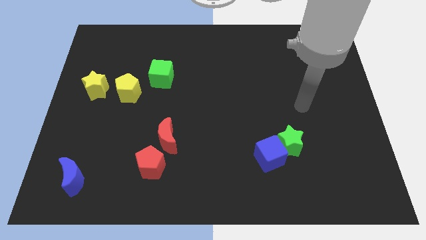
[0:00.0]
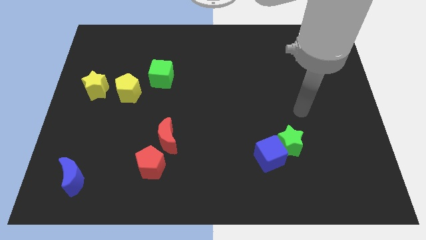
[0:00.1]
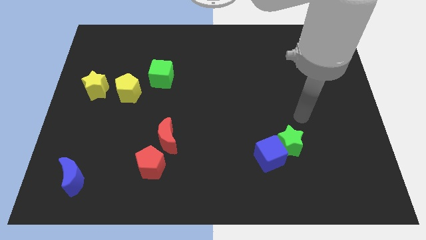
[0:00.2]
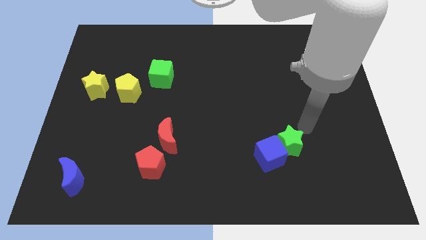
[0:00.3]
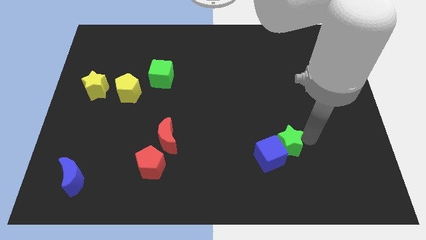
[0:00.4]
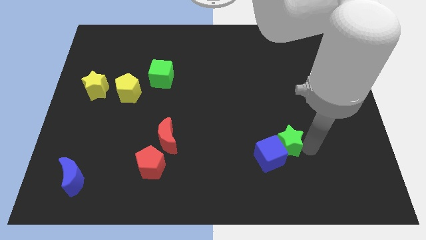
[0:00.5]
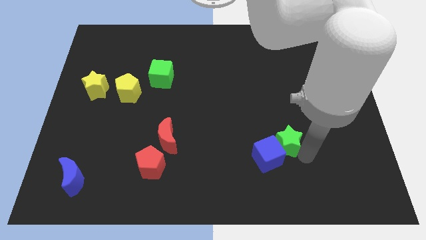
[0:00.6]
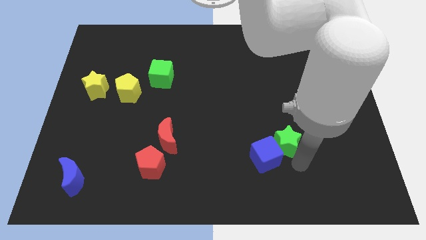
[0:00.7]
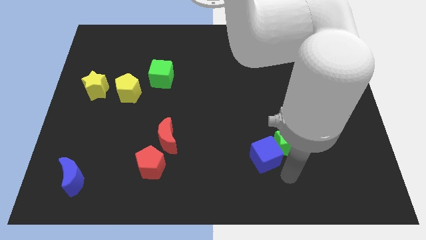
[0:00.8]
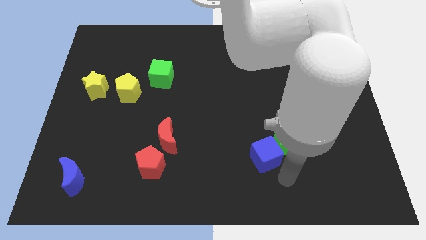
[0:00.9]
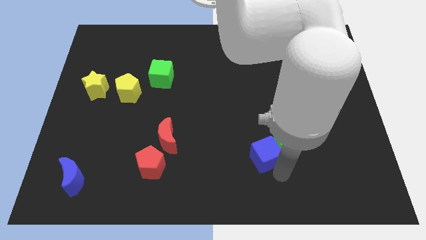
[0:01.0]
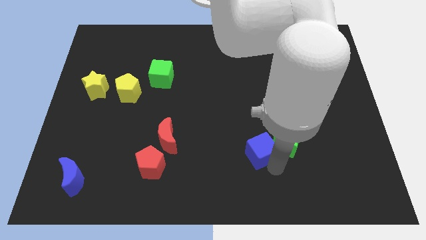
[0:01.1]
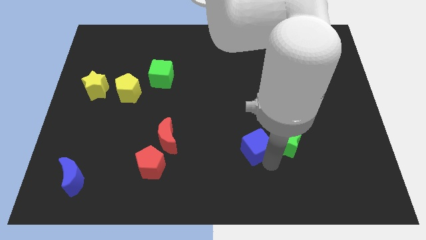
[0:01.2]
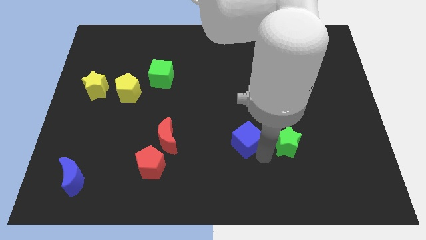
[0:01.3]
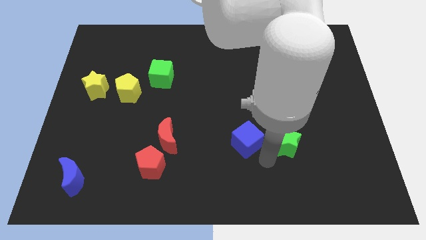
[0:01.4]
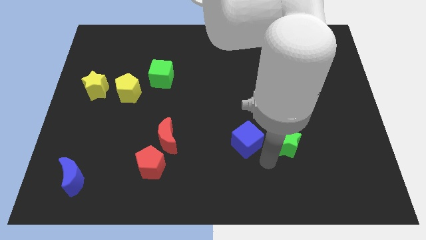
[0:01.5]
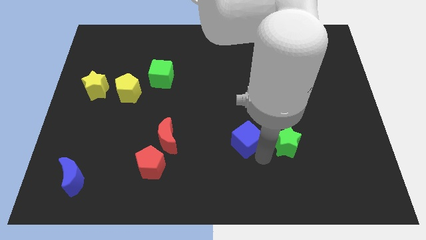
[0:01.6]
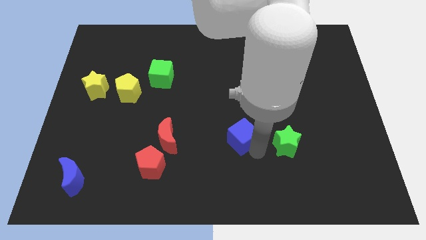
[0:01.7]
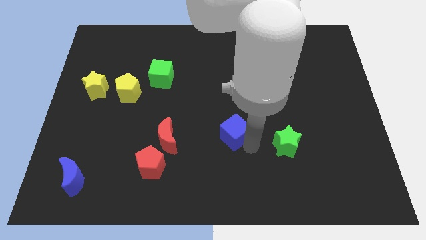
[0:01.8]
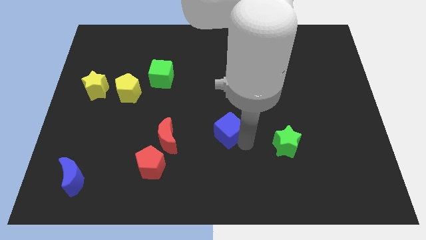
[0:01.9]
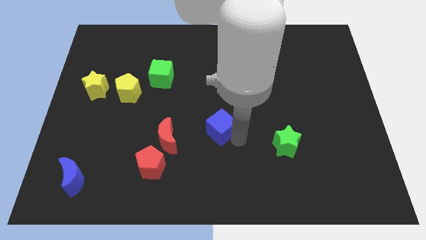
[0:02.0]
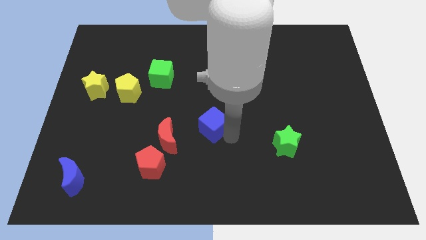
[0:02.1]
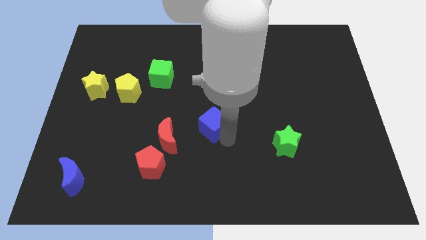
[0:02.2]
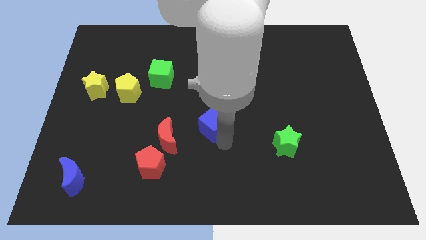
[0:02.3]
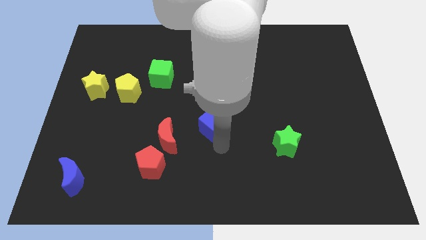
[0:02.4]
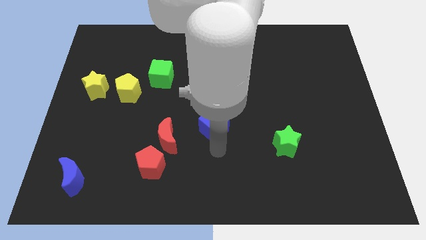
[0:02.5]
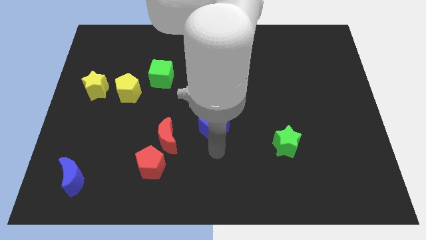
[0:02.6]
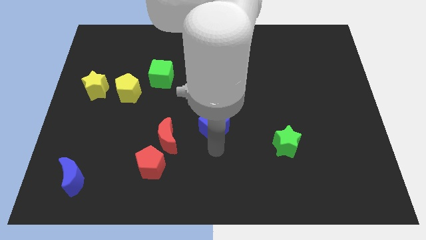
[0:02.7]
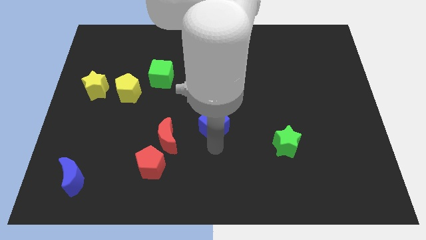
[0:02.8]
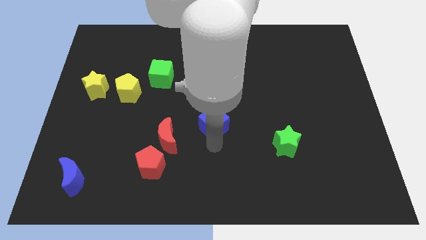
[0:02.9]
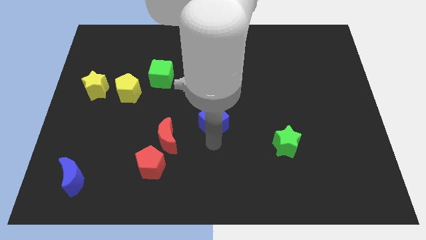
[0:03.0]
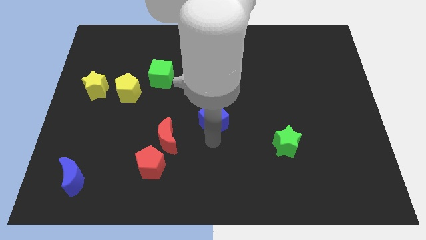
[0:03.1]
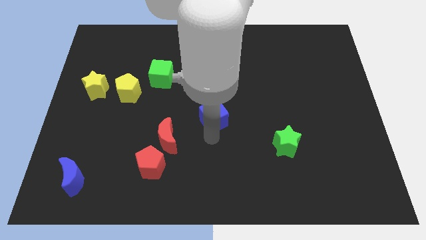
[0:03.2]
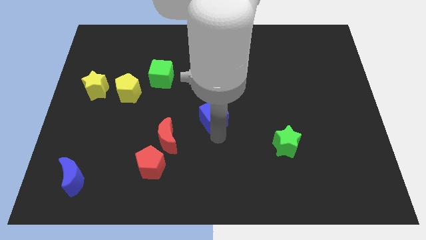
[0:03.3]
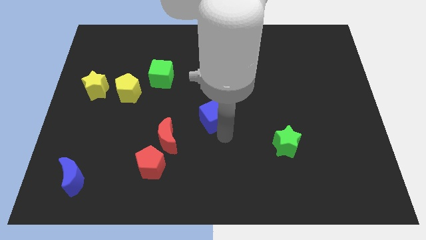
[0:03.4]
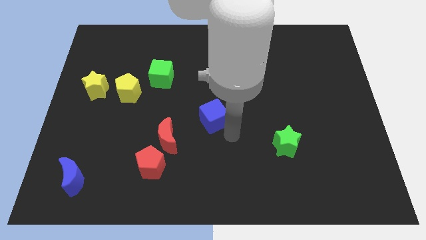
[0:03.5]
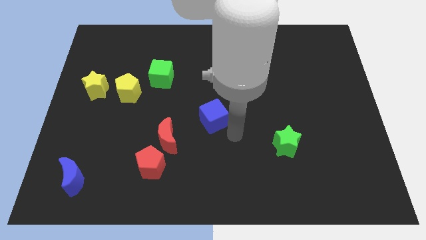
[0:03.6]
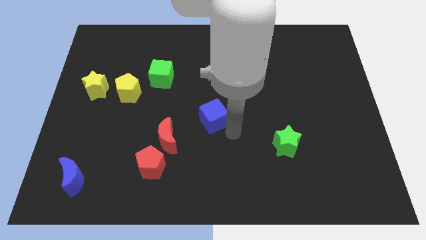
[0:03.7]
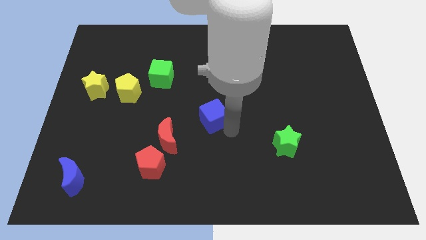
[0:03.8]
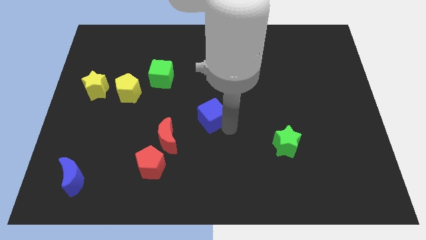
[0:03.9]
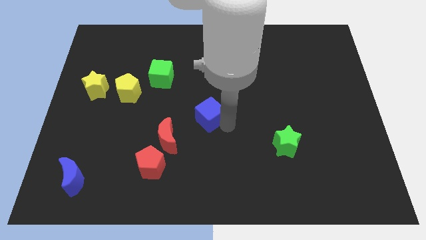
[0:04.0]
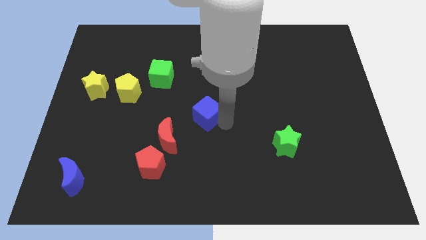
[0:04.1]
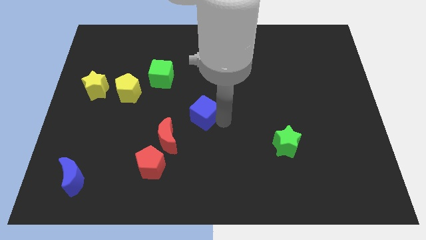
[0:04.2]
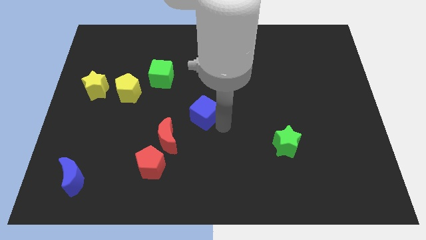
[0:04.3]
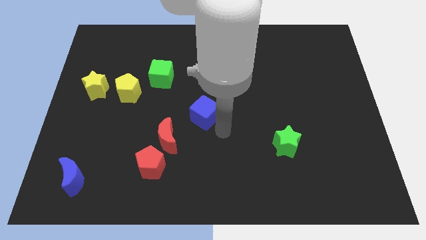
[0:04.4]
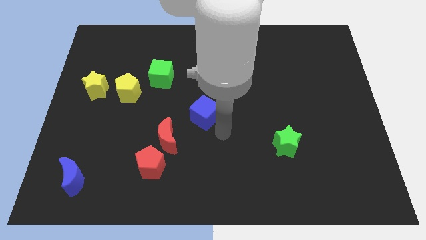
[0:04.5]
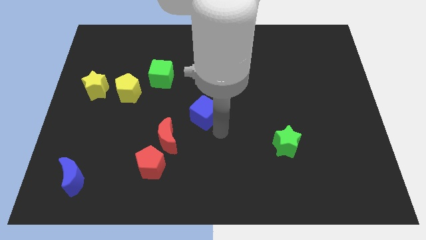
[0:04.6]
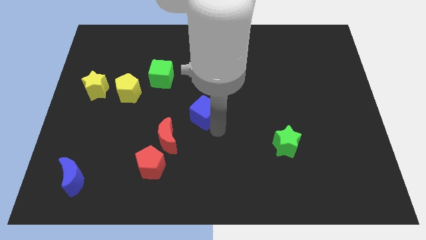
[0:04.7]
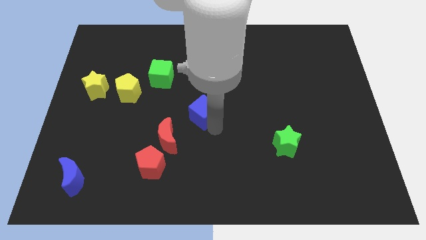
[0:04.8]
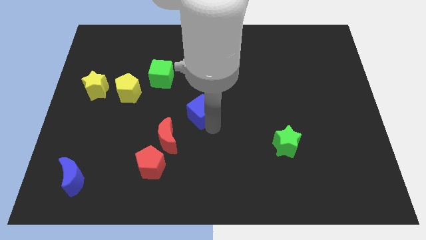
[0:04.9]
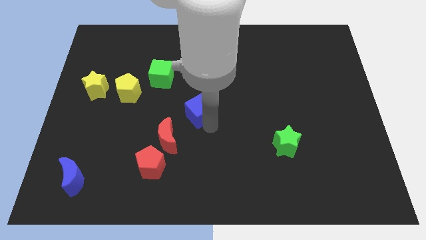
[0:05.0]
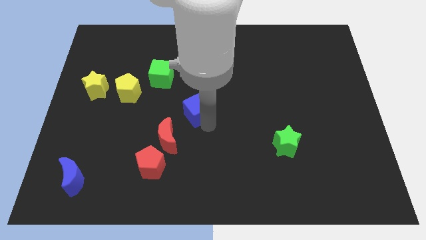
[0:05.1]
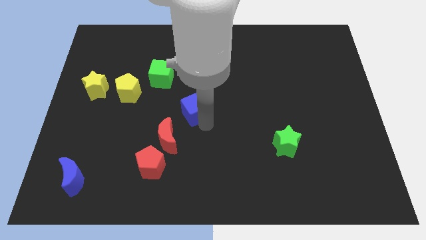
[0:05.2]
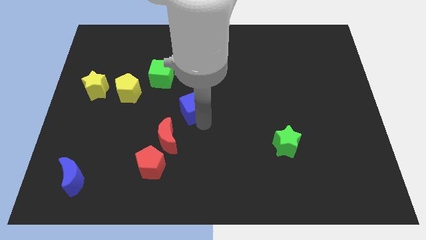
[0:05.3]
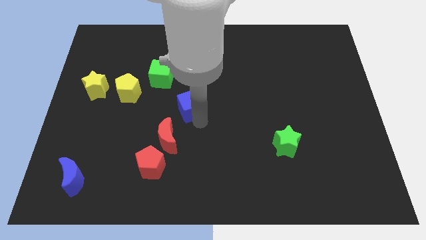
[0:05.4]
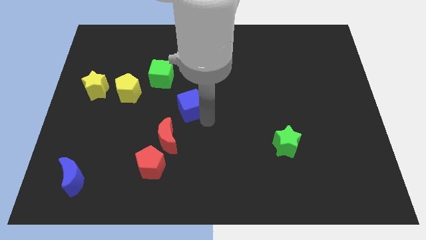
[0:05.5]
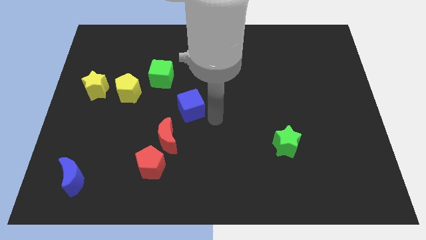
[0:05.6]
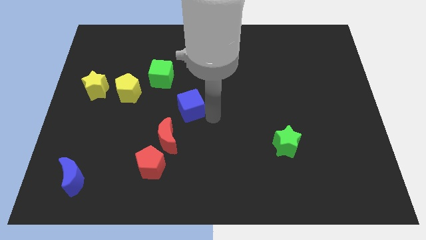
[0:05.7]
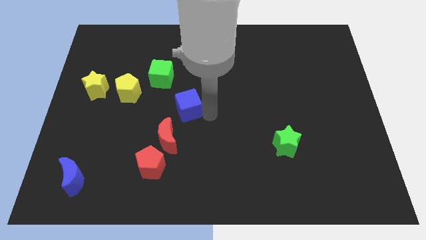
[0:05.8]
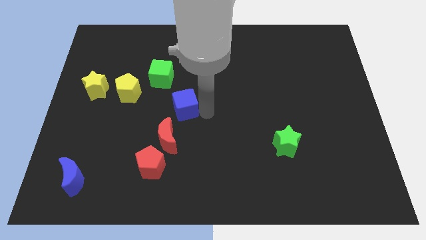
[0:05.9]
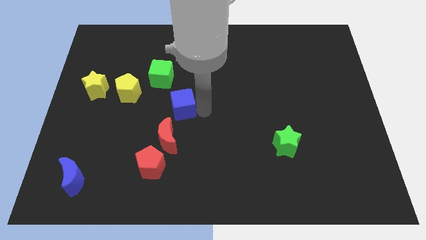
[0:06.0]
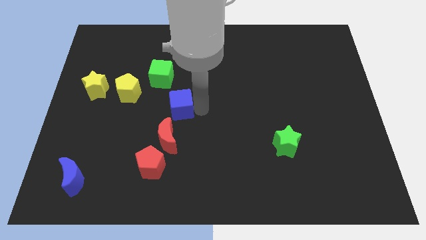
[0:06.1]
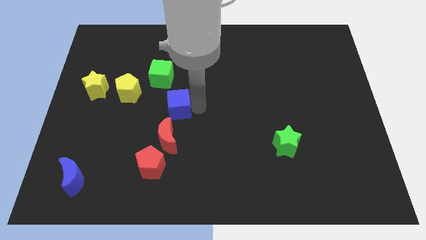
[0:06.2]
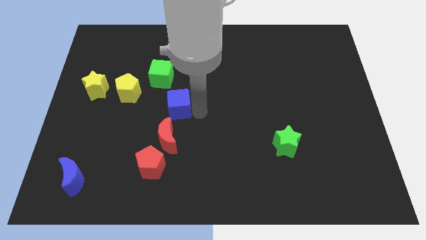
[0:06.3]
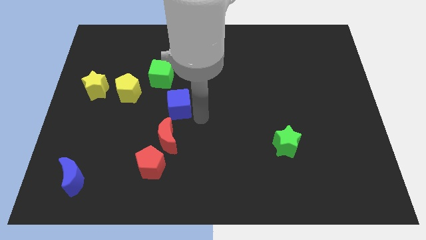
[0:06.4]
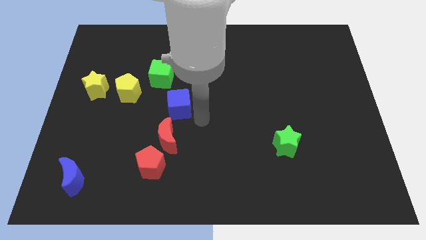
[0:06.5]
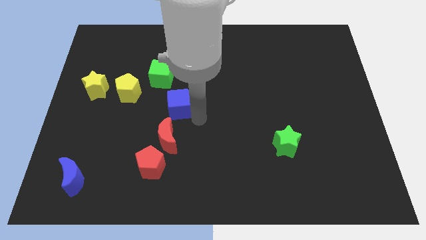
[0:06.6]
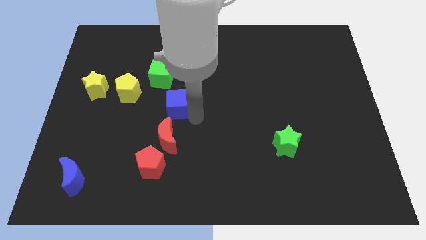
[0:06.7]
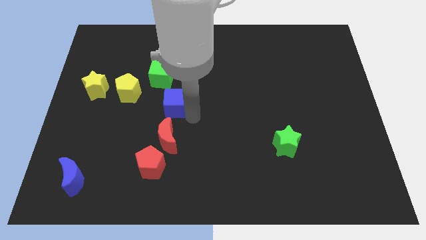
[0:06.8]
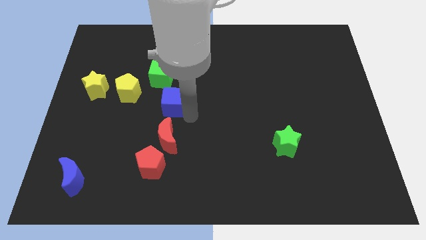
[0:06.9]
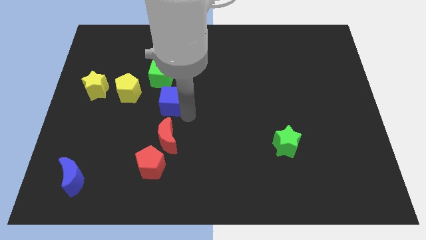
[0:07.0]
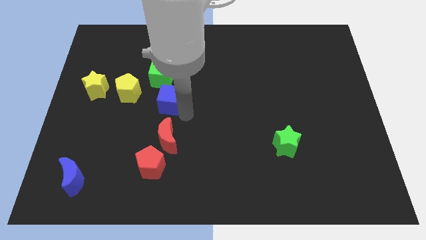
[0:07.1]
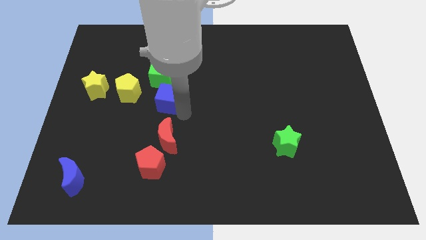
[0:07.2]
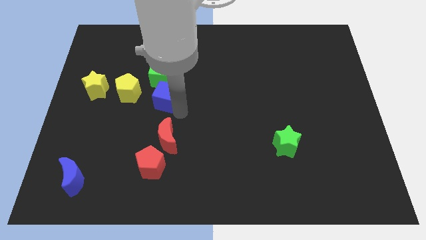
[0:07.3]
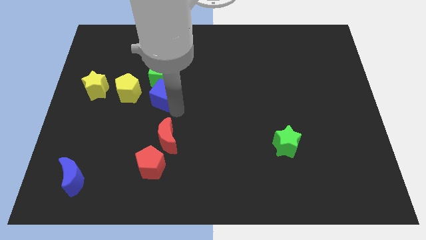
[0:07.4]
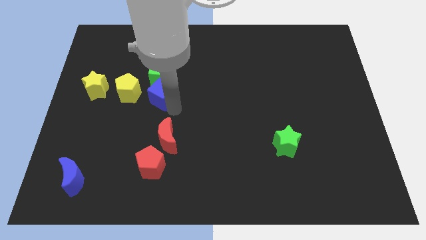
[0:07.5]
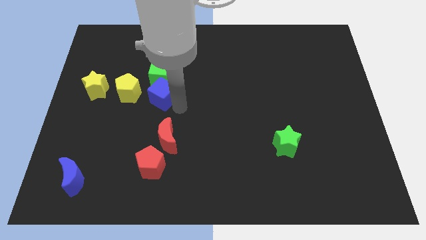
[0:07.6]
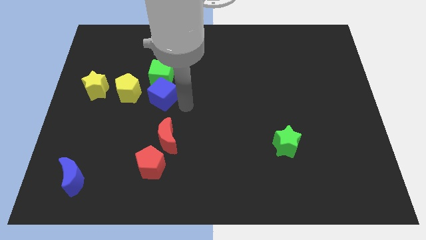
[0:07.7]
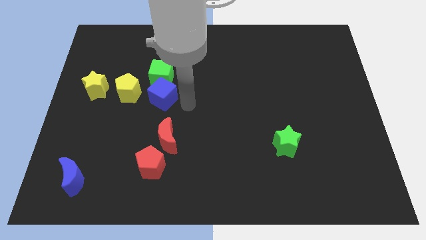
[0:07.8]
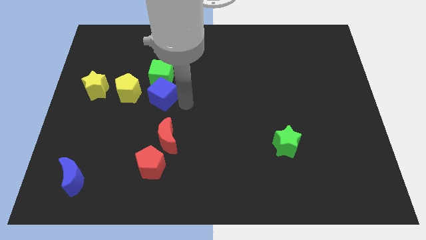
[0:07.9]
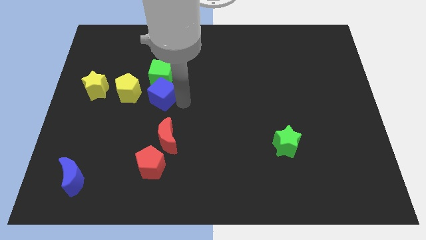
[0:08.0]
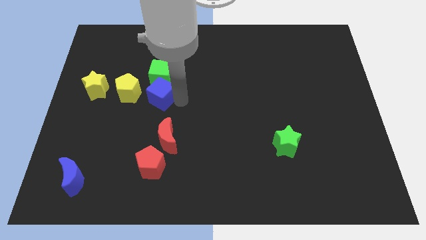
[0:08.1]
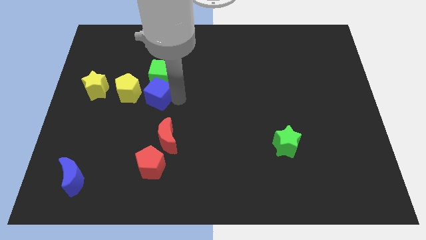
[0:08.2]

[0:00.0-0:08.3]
move the blue cube just right of the yellow star
